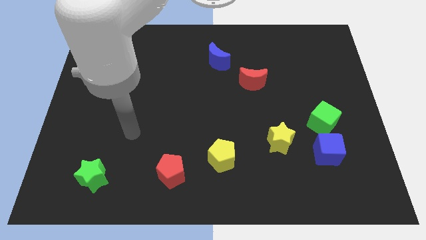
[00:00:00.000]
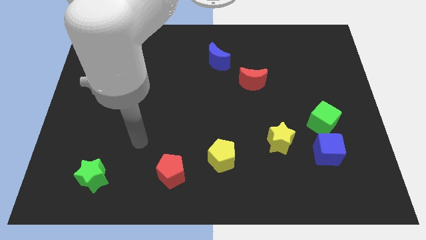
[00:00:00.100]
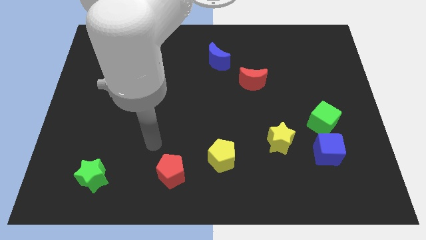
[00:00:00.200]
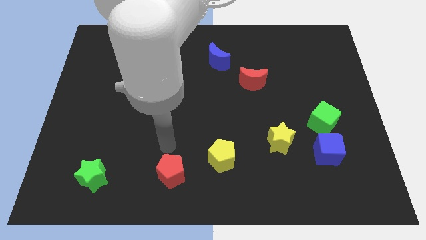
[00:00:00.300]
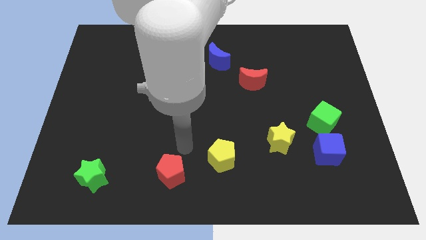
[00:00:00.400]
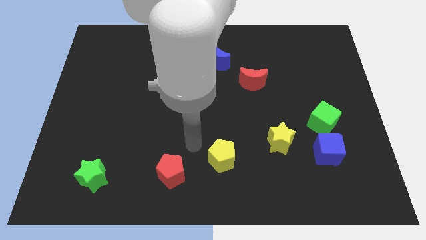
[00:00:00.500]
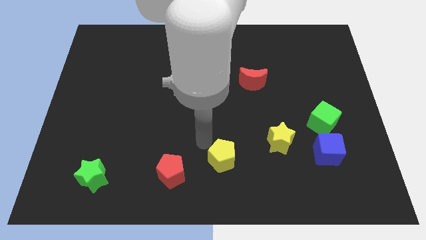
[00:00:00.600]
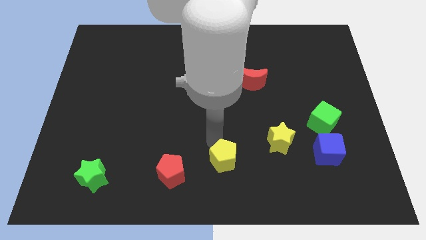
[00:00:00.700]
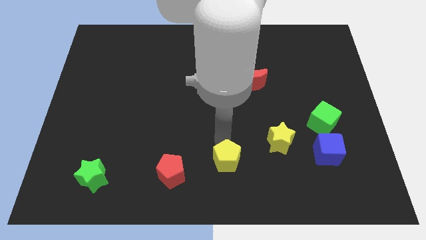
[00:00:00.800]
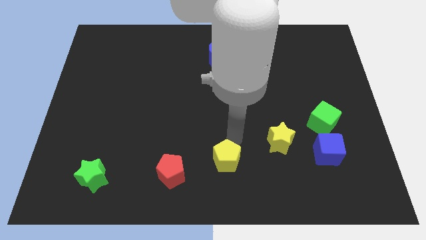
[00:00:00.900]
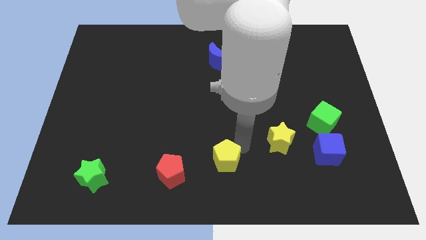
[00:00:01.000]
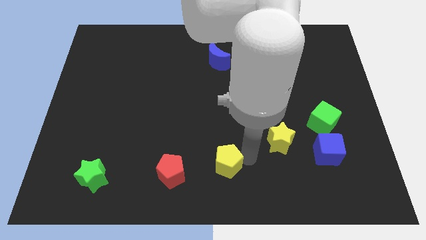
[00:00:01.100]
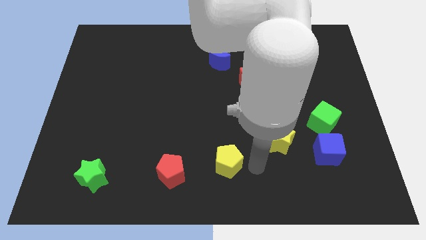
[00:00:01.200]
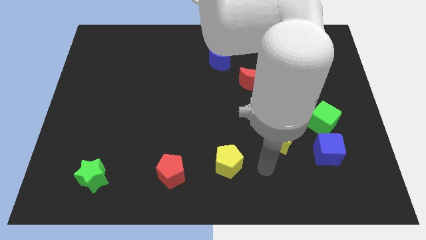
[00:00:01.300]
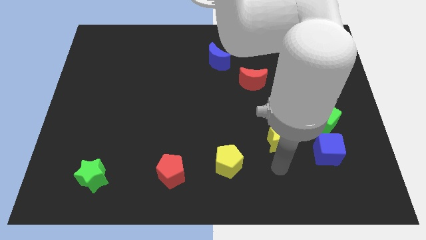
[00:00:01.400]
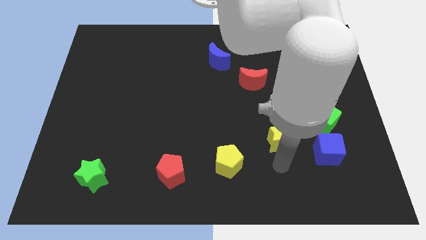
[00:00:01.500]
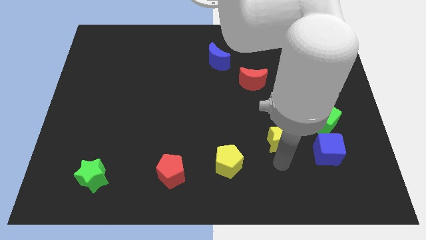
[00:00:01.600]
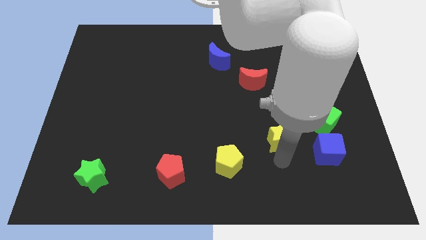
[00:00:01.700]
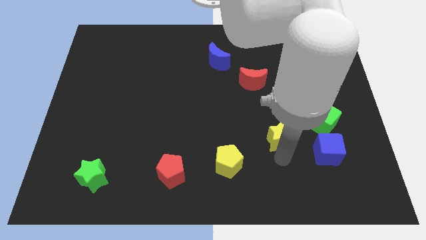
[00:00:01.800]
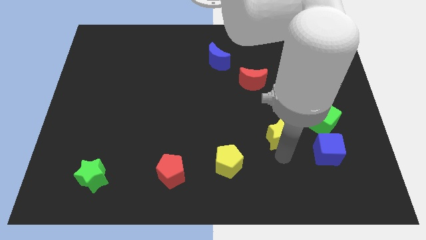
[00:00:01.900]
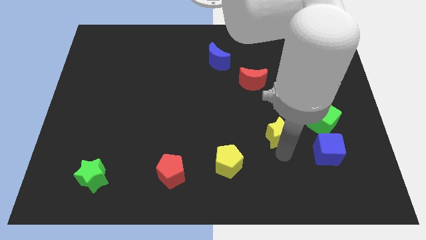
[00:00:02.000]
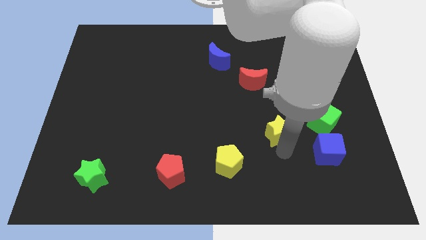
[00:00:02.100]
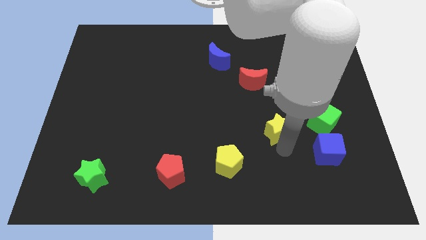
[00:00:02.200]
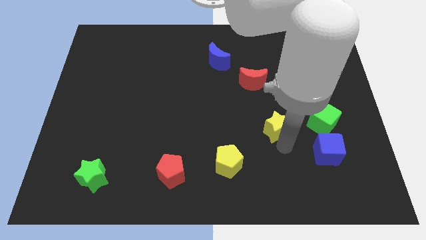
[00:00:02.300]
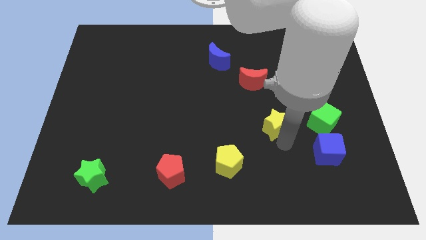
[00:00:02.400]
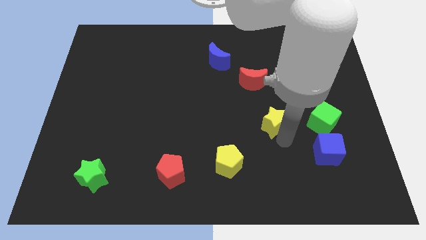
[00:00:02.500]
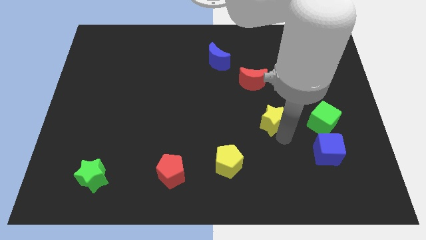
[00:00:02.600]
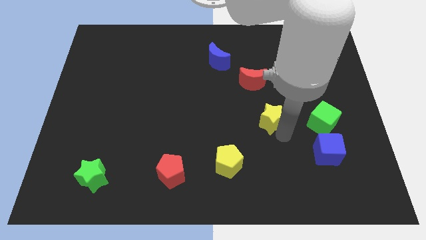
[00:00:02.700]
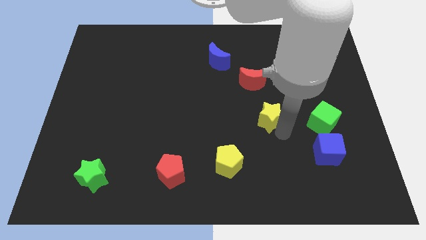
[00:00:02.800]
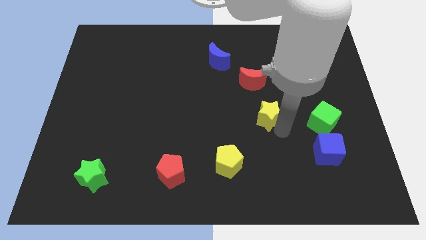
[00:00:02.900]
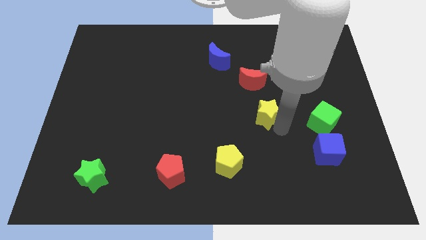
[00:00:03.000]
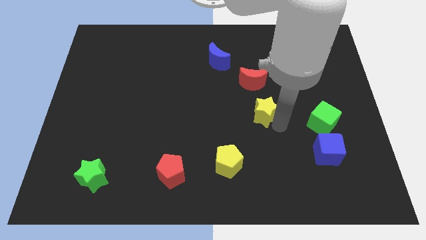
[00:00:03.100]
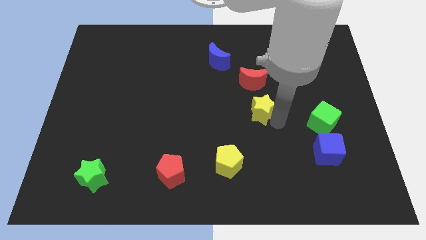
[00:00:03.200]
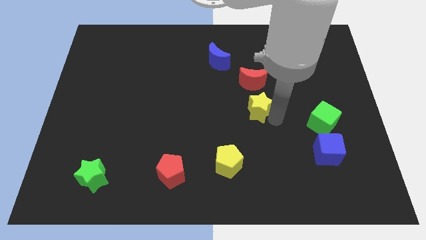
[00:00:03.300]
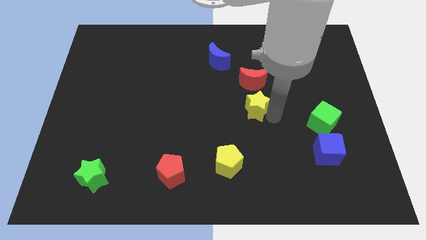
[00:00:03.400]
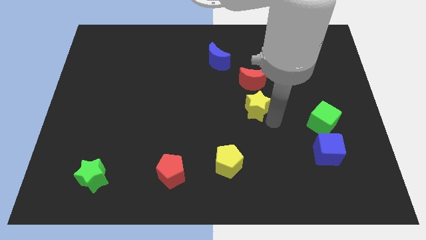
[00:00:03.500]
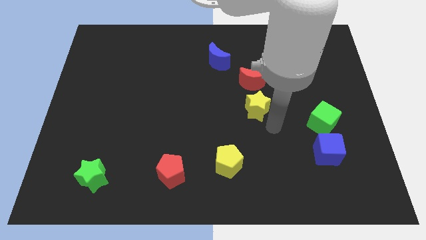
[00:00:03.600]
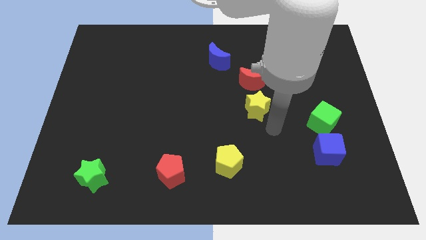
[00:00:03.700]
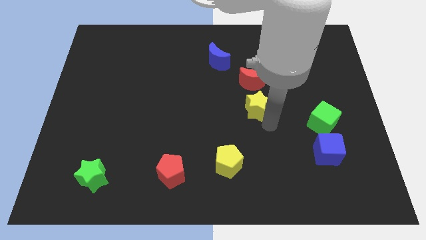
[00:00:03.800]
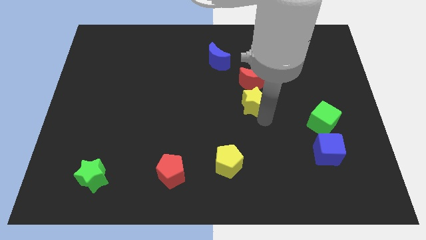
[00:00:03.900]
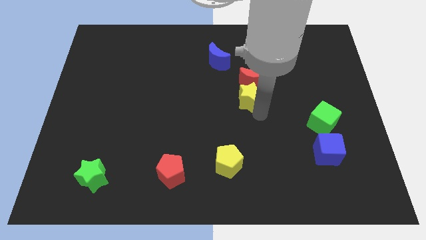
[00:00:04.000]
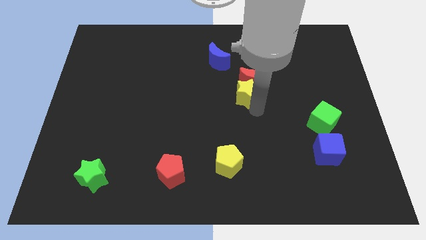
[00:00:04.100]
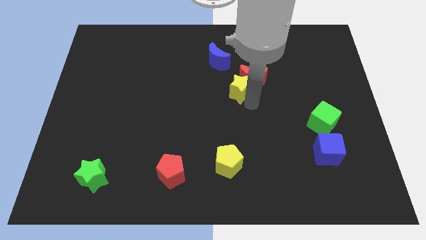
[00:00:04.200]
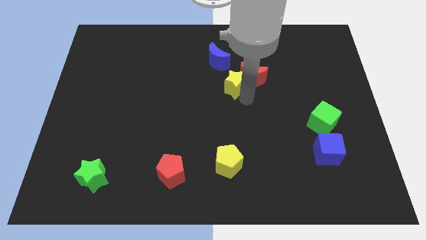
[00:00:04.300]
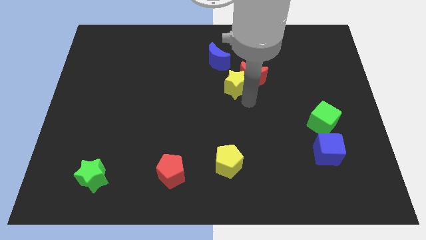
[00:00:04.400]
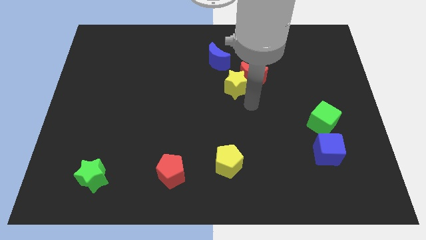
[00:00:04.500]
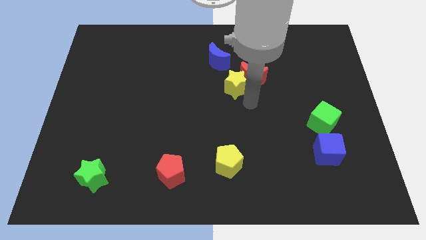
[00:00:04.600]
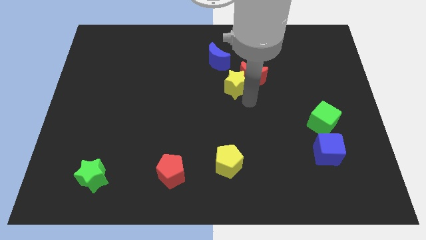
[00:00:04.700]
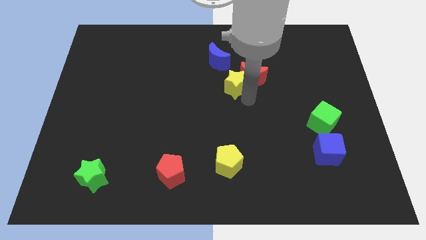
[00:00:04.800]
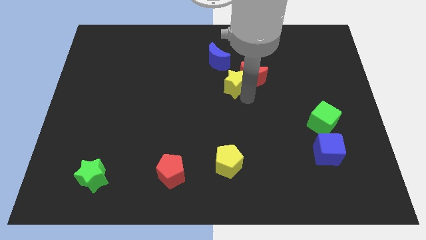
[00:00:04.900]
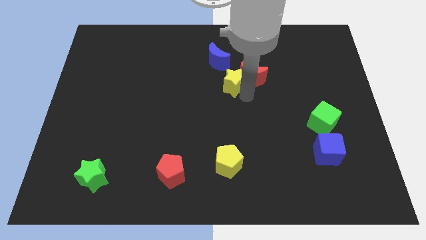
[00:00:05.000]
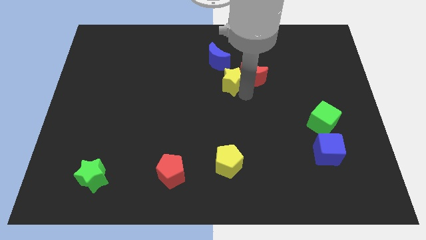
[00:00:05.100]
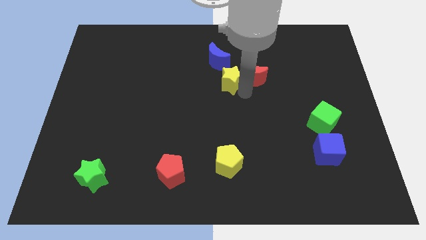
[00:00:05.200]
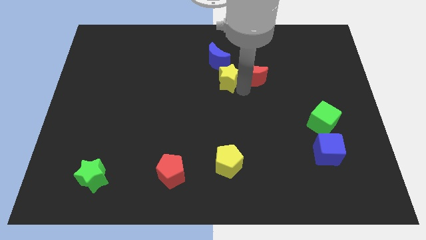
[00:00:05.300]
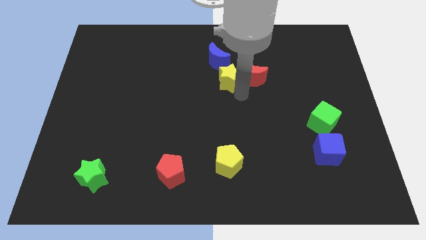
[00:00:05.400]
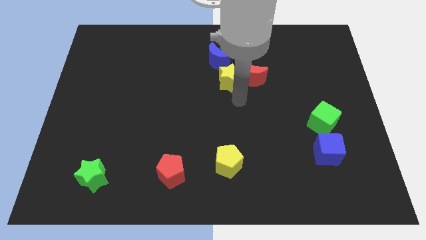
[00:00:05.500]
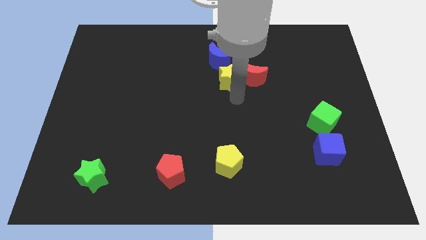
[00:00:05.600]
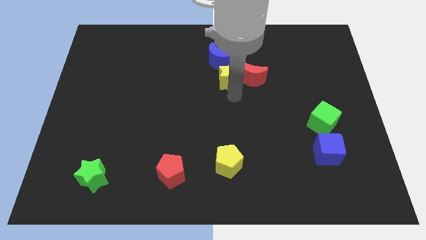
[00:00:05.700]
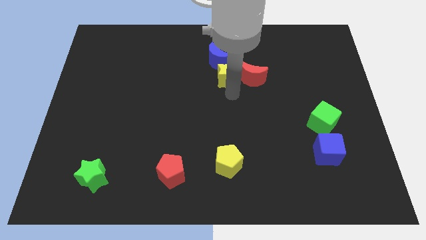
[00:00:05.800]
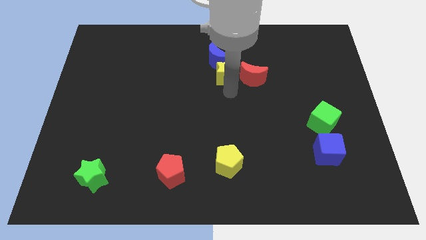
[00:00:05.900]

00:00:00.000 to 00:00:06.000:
put the yellow star close to the blue moon
